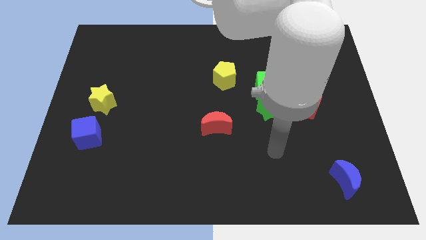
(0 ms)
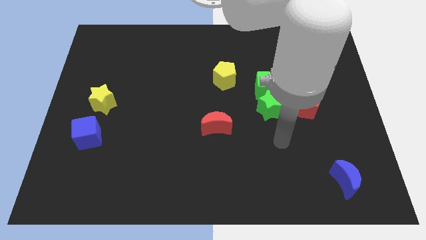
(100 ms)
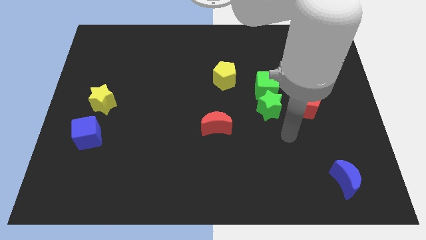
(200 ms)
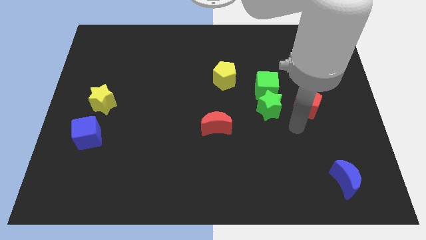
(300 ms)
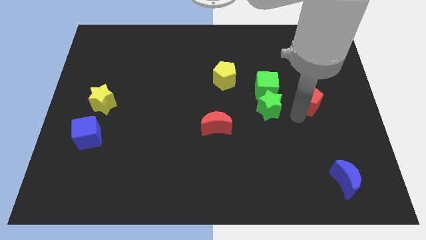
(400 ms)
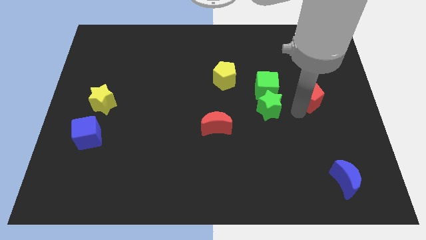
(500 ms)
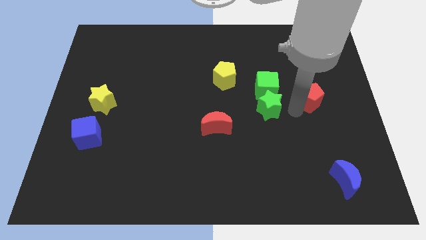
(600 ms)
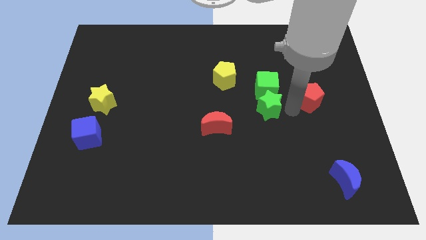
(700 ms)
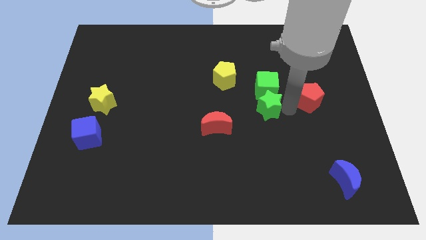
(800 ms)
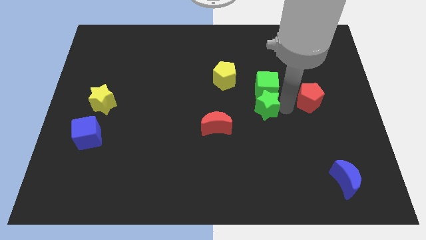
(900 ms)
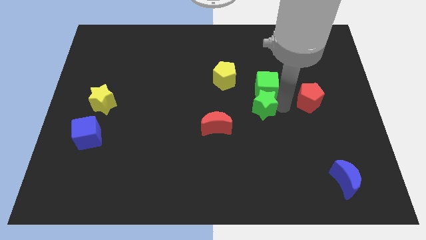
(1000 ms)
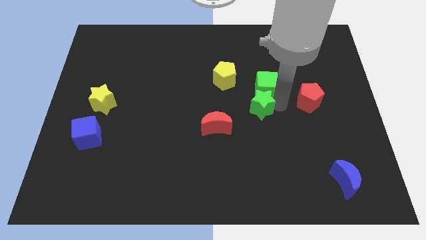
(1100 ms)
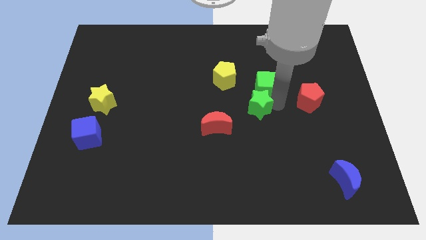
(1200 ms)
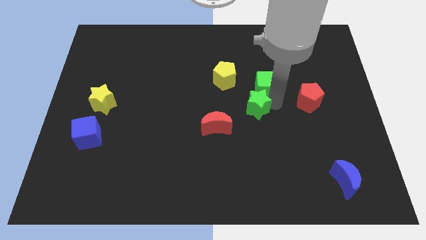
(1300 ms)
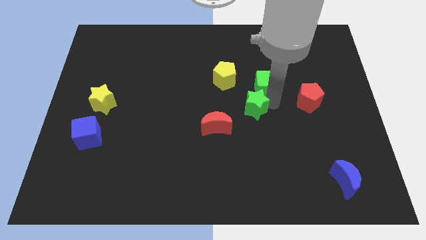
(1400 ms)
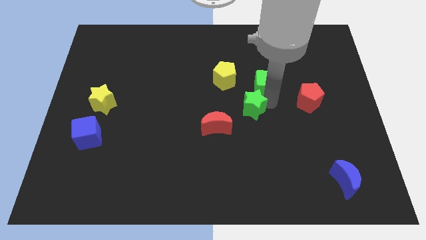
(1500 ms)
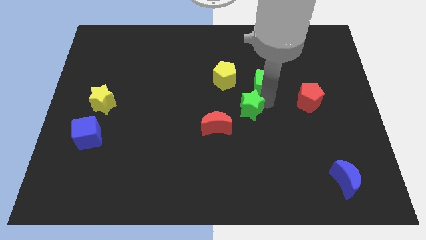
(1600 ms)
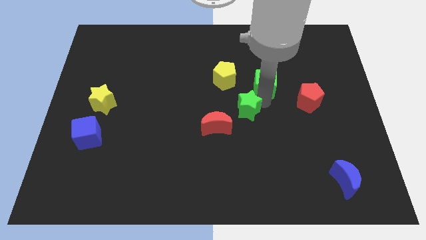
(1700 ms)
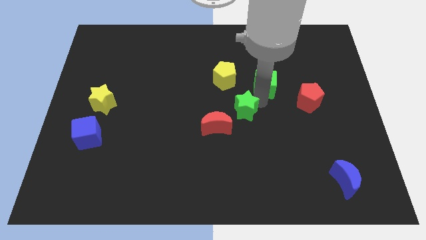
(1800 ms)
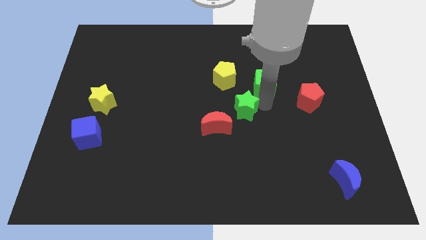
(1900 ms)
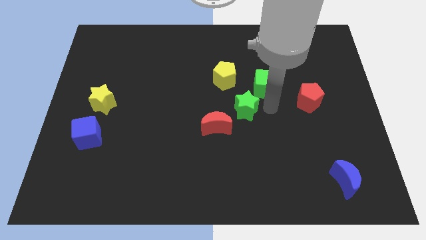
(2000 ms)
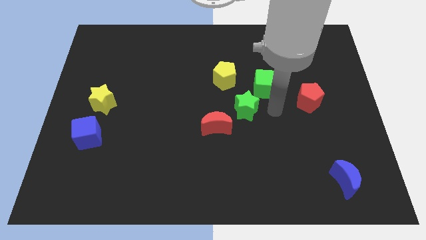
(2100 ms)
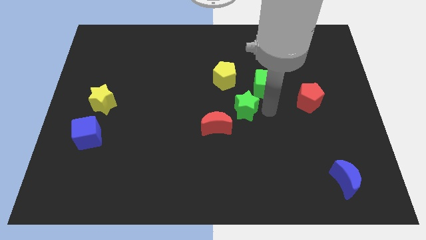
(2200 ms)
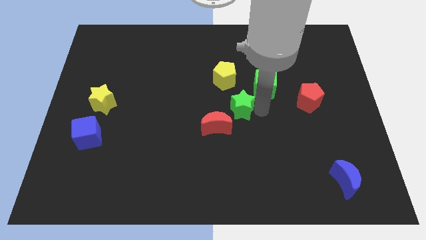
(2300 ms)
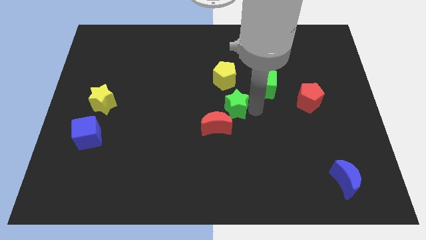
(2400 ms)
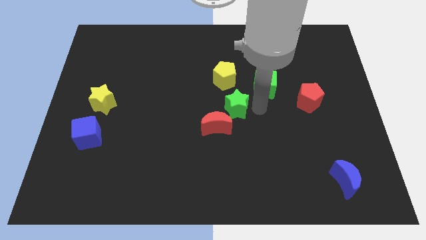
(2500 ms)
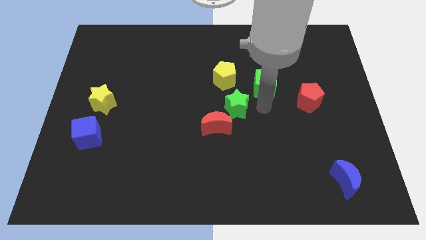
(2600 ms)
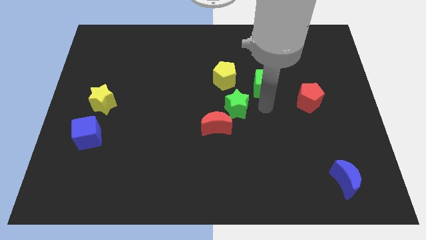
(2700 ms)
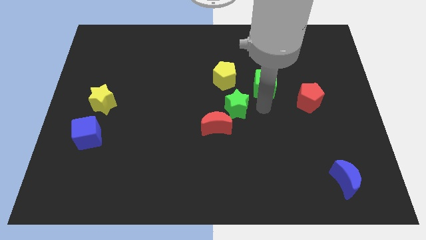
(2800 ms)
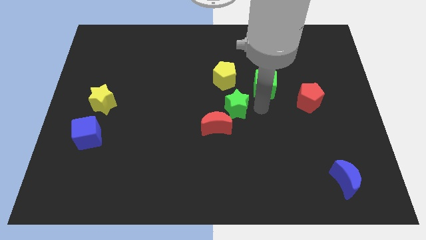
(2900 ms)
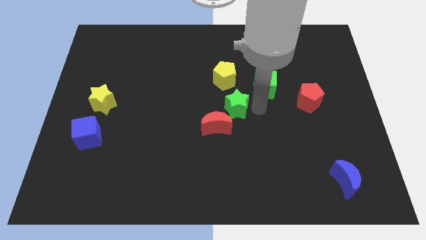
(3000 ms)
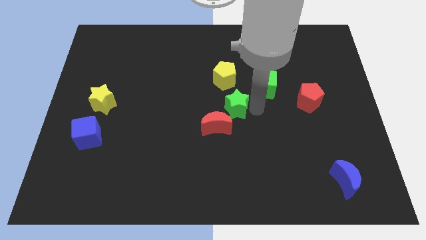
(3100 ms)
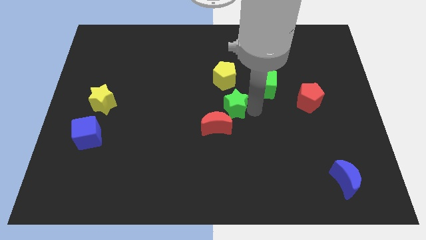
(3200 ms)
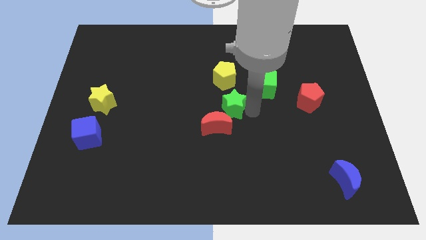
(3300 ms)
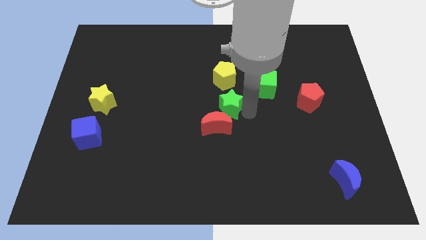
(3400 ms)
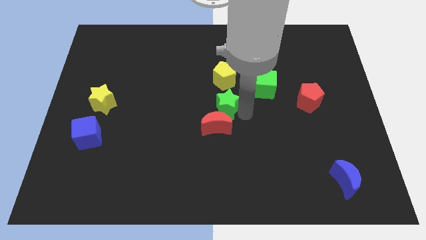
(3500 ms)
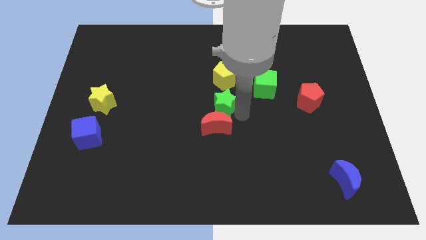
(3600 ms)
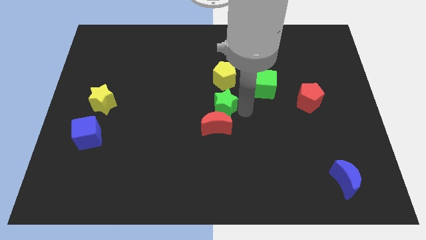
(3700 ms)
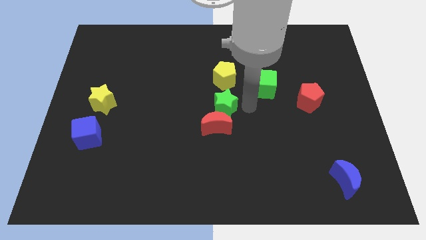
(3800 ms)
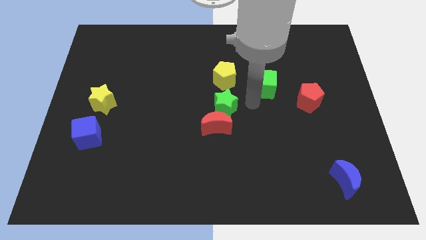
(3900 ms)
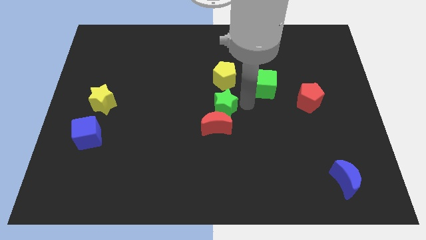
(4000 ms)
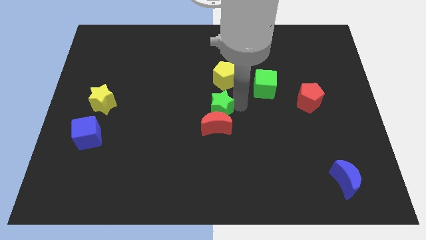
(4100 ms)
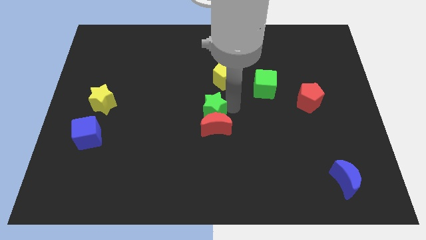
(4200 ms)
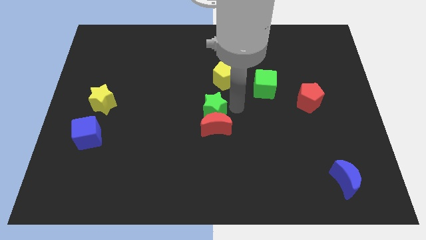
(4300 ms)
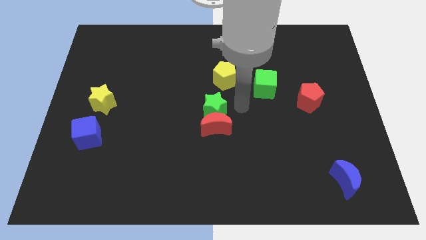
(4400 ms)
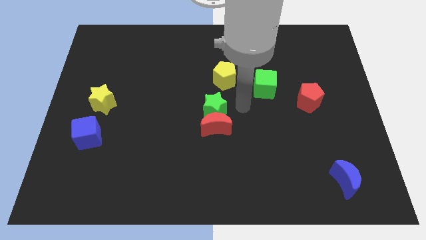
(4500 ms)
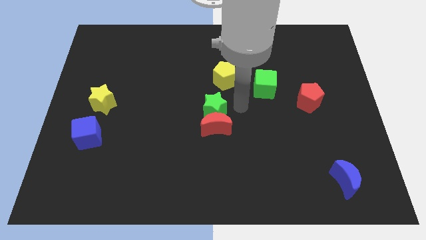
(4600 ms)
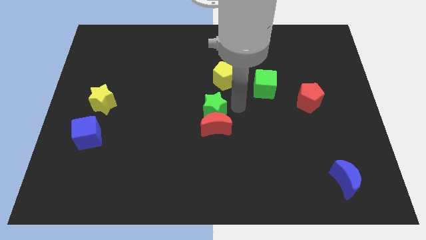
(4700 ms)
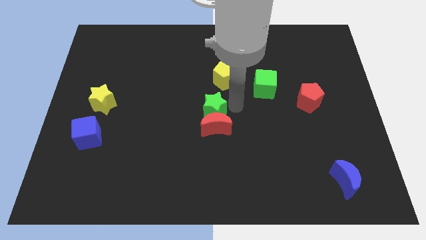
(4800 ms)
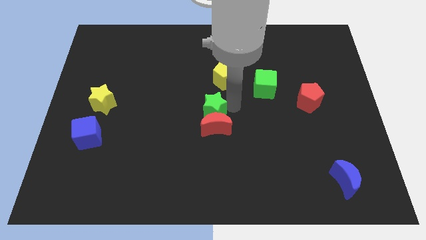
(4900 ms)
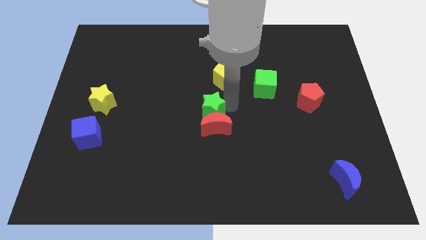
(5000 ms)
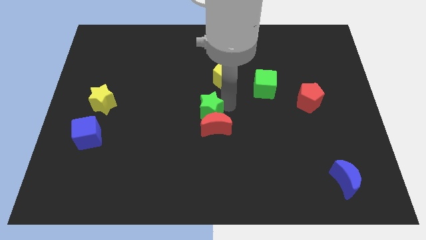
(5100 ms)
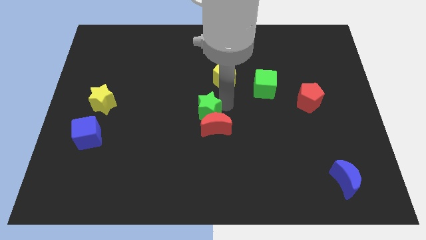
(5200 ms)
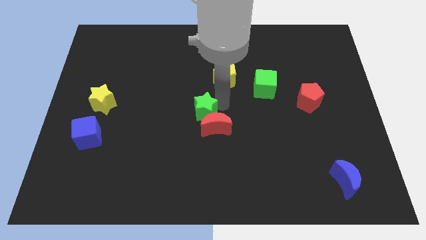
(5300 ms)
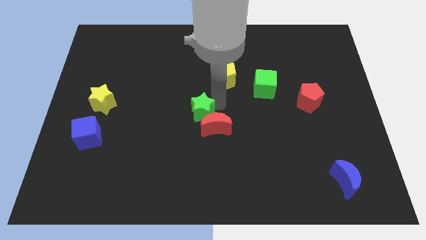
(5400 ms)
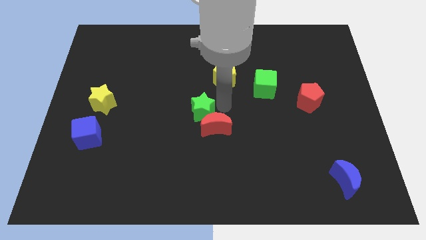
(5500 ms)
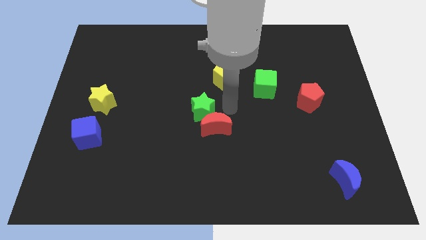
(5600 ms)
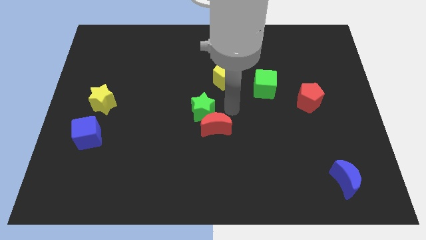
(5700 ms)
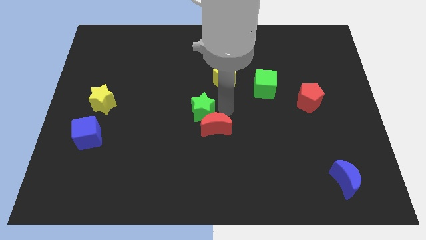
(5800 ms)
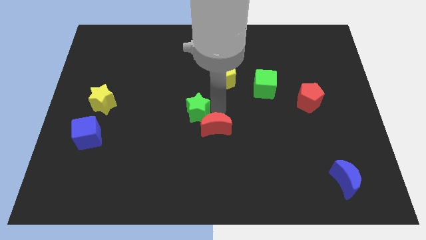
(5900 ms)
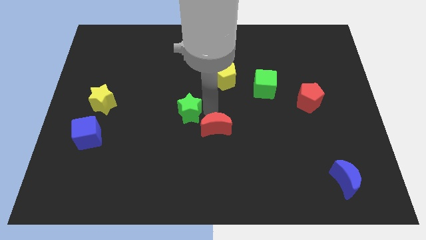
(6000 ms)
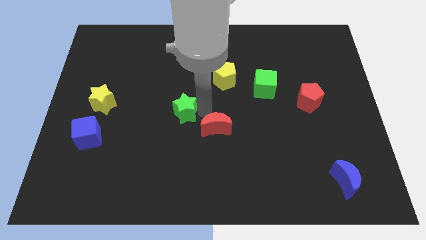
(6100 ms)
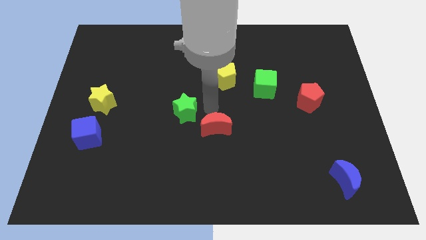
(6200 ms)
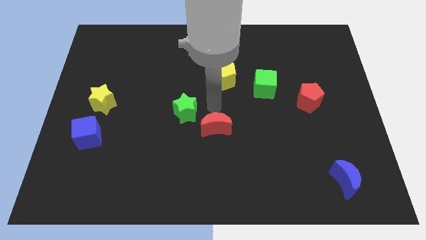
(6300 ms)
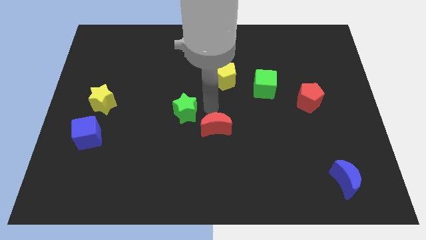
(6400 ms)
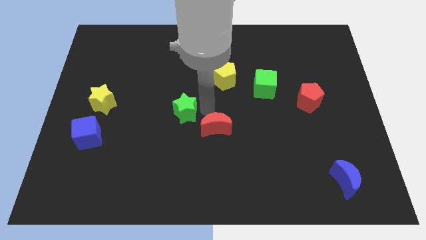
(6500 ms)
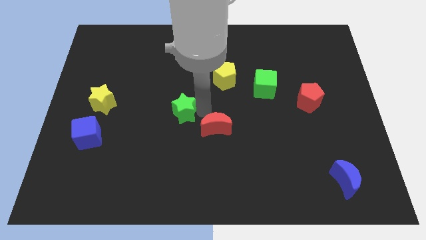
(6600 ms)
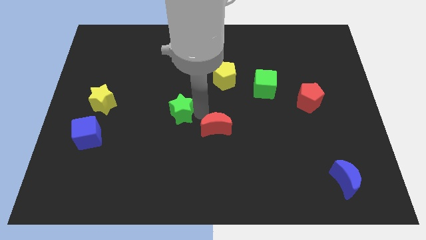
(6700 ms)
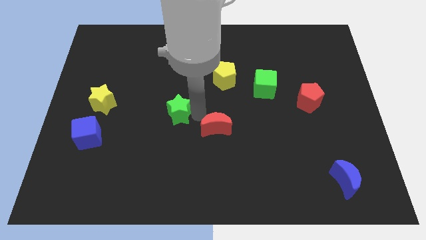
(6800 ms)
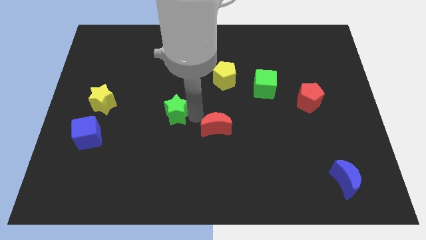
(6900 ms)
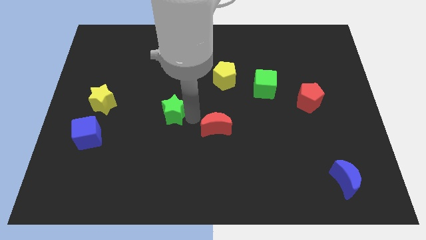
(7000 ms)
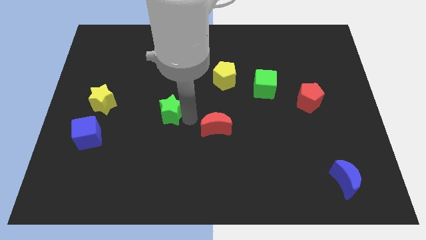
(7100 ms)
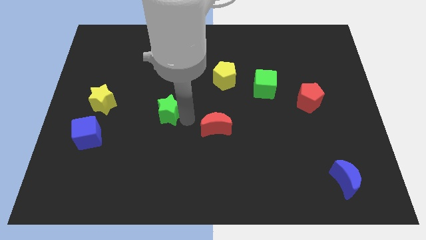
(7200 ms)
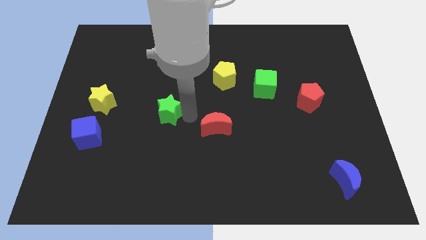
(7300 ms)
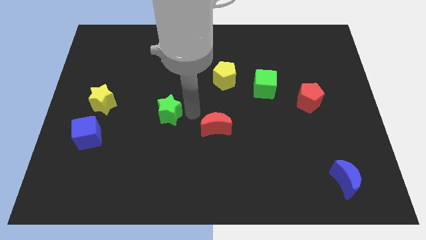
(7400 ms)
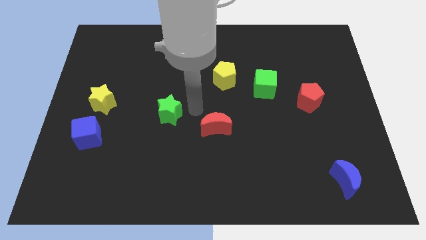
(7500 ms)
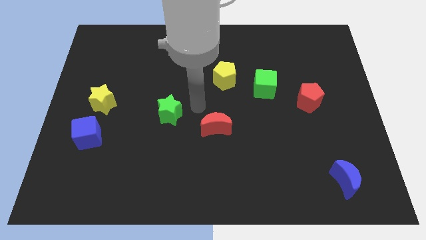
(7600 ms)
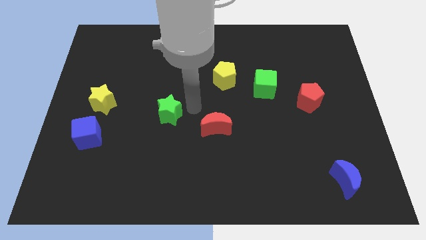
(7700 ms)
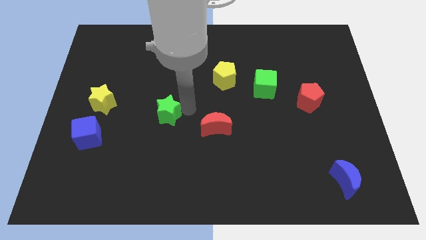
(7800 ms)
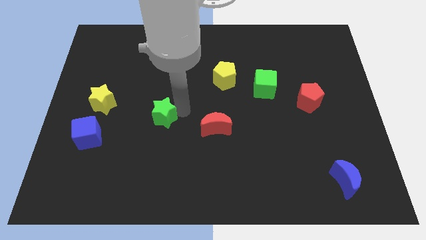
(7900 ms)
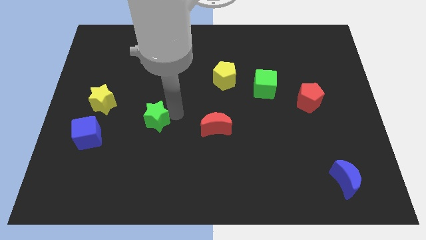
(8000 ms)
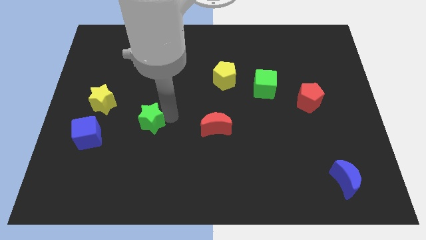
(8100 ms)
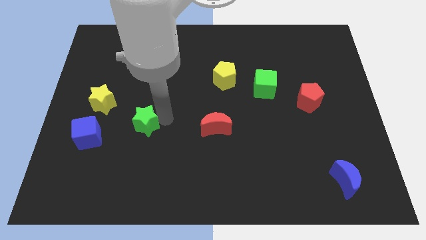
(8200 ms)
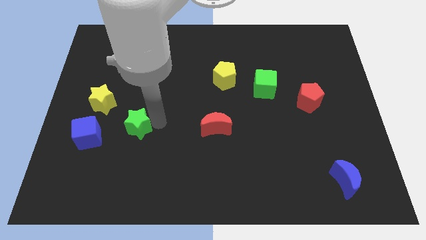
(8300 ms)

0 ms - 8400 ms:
push the green star to the bottom right of the yellow star
